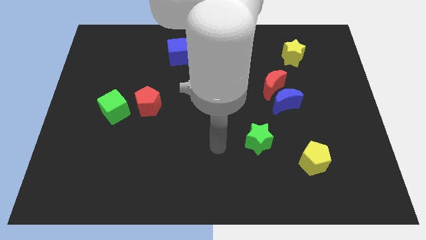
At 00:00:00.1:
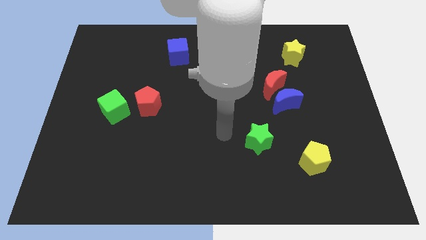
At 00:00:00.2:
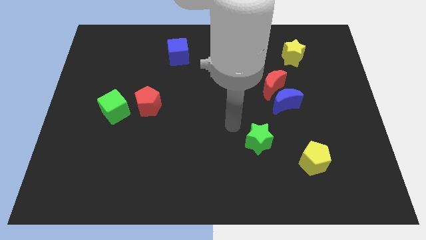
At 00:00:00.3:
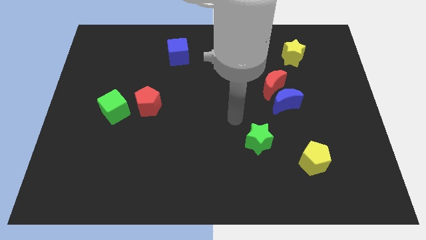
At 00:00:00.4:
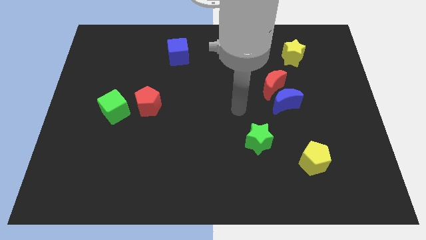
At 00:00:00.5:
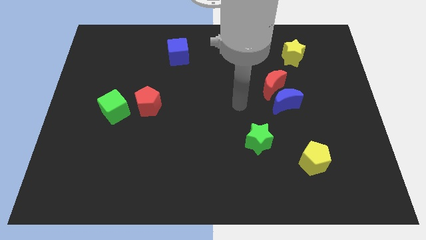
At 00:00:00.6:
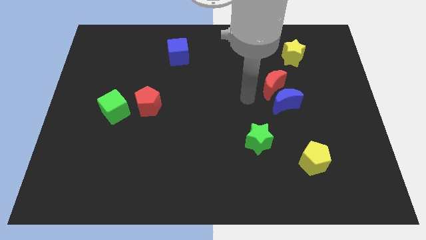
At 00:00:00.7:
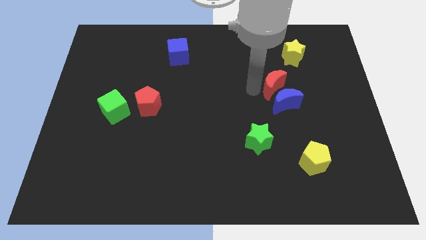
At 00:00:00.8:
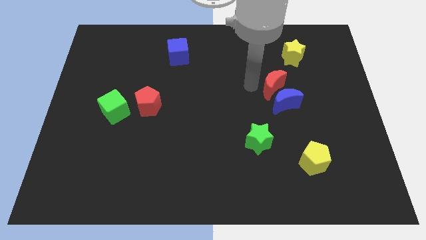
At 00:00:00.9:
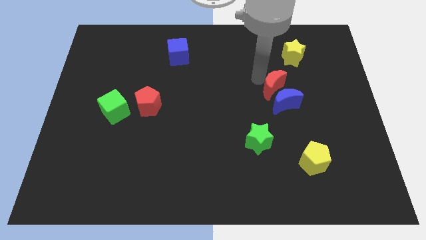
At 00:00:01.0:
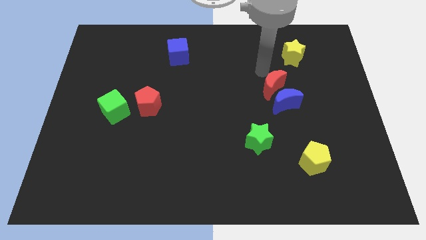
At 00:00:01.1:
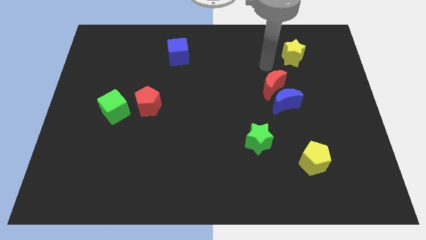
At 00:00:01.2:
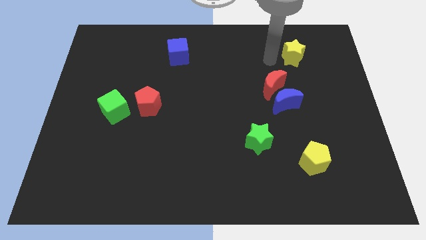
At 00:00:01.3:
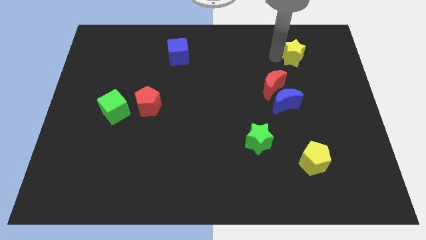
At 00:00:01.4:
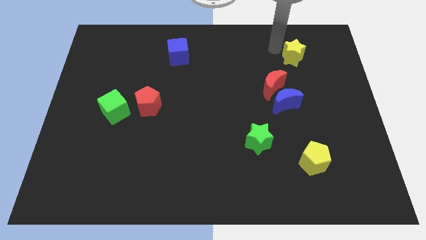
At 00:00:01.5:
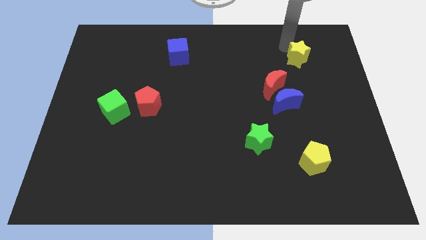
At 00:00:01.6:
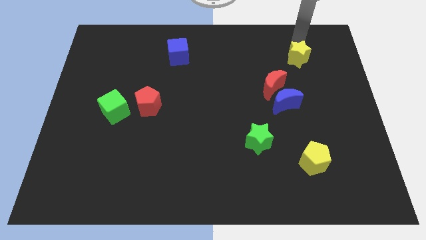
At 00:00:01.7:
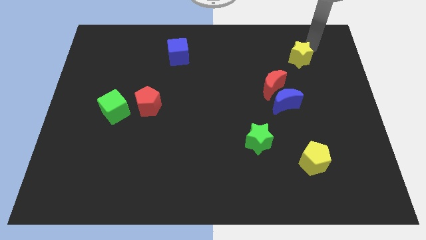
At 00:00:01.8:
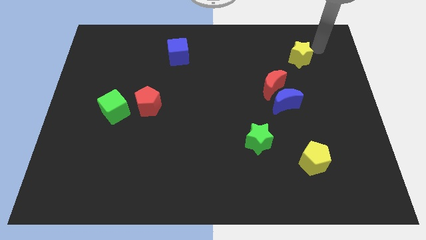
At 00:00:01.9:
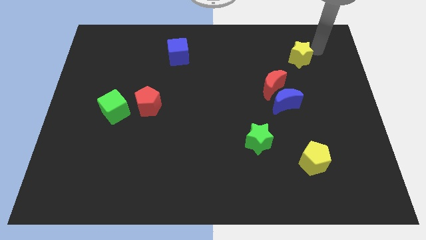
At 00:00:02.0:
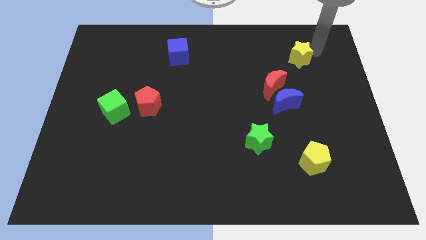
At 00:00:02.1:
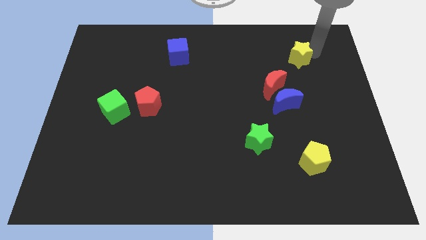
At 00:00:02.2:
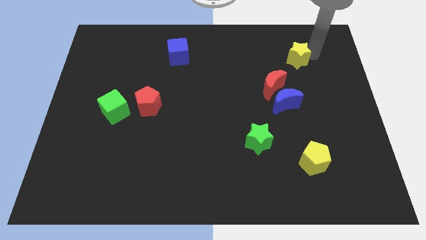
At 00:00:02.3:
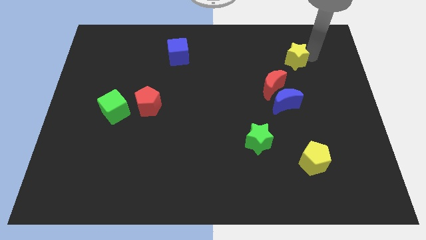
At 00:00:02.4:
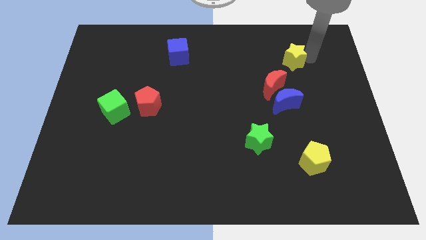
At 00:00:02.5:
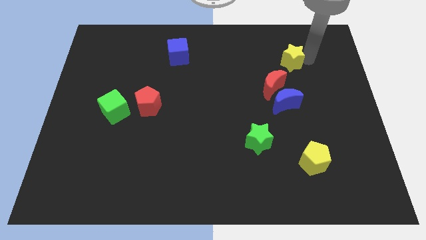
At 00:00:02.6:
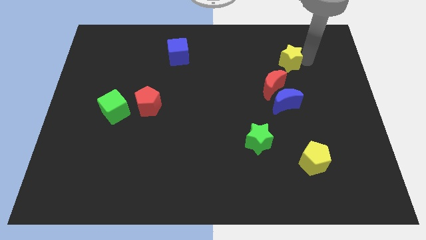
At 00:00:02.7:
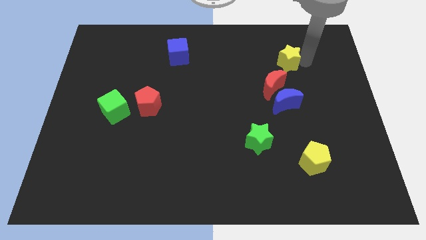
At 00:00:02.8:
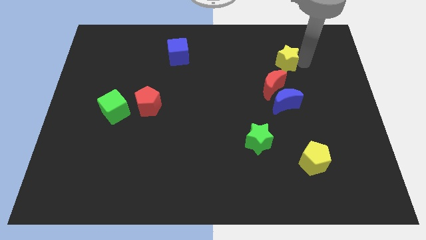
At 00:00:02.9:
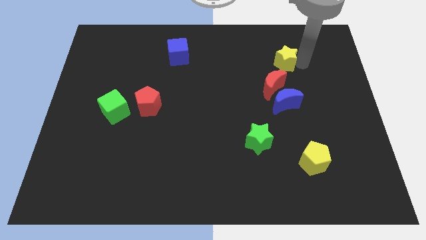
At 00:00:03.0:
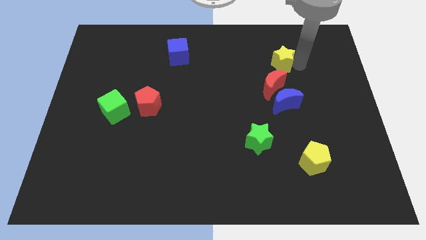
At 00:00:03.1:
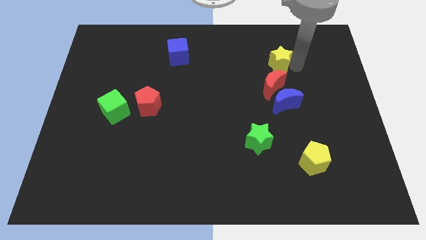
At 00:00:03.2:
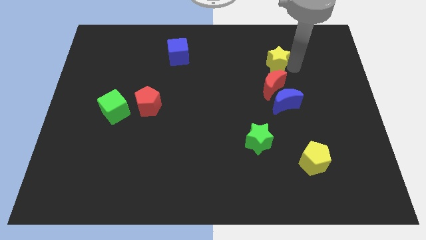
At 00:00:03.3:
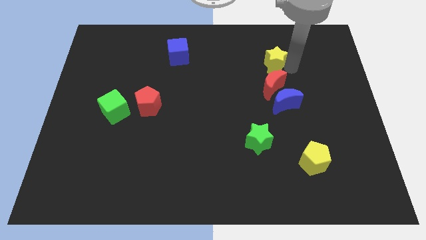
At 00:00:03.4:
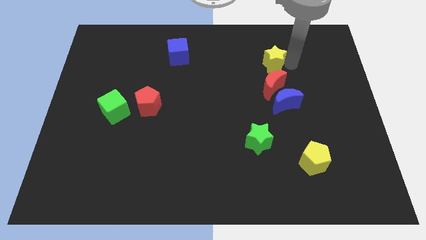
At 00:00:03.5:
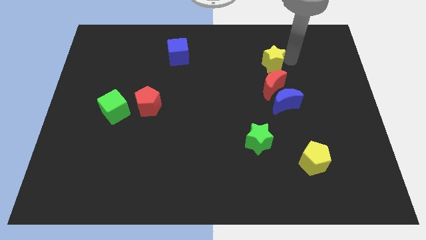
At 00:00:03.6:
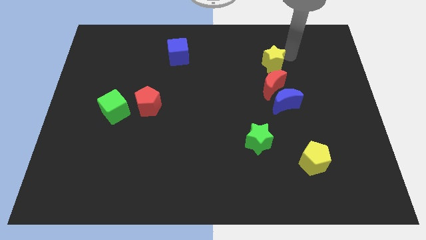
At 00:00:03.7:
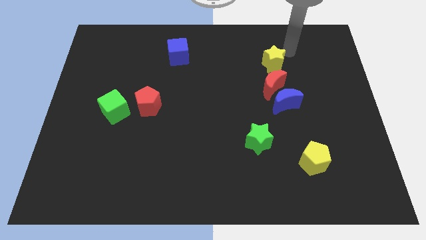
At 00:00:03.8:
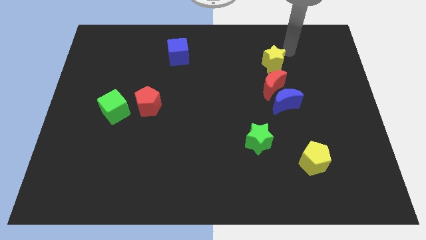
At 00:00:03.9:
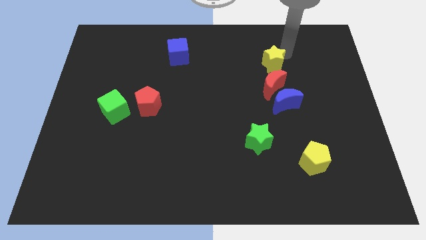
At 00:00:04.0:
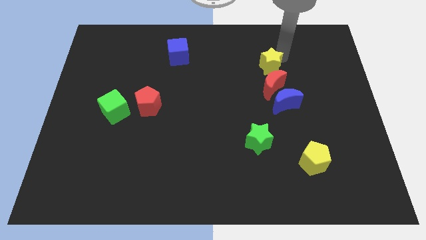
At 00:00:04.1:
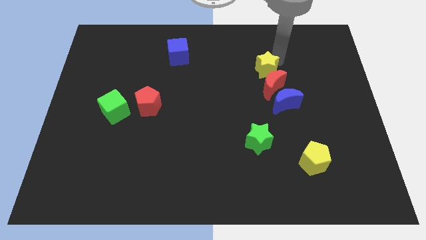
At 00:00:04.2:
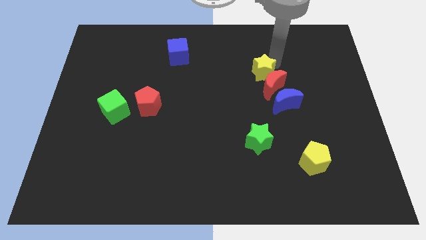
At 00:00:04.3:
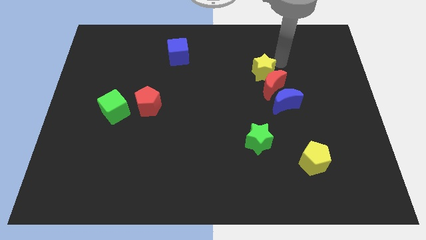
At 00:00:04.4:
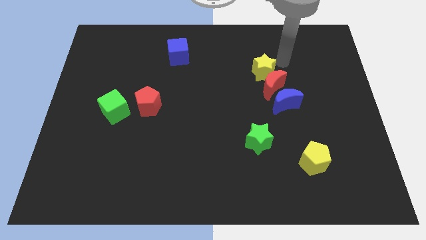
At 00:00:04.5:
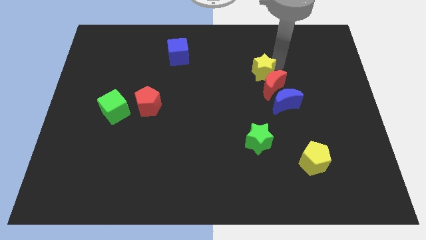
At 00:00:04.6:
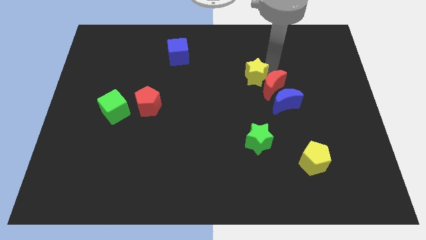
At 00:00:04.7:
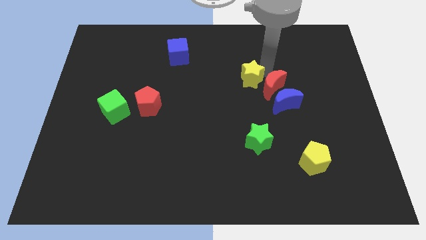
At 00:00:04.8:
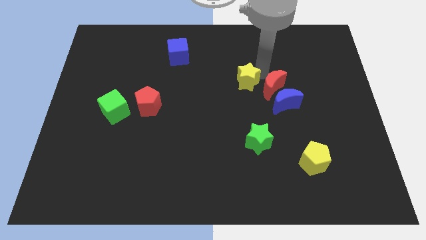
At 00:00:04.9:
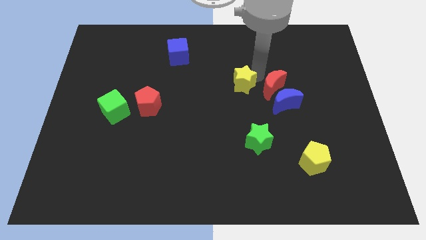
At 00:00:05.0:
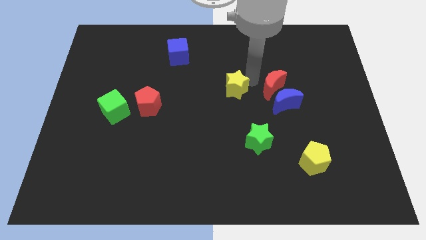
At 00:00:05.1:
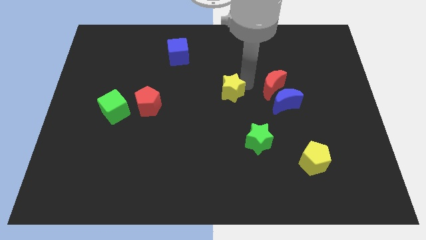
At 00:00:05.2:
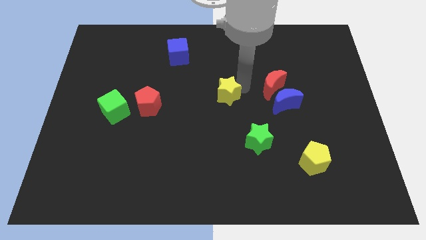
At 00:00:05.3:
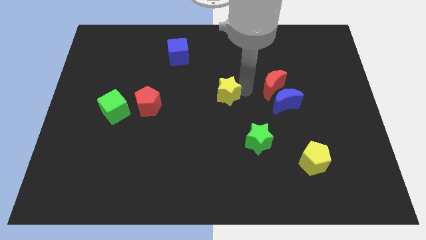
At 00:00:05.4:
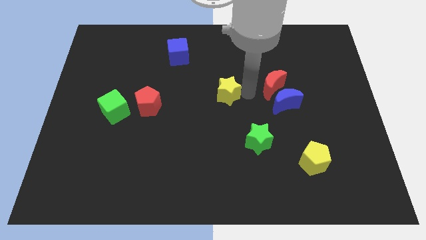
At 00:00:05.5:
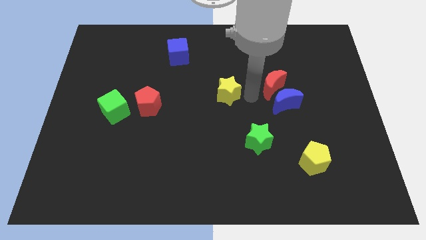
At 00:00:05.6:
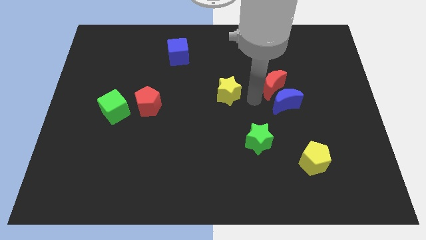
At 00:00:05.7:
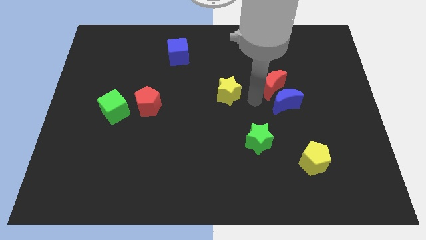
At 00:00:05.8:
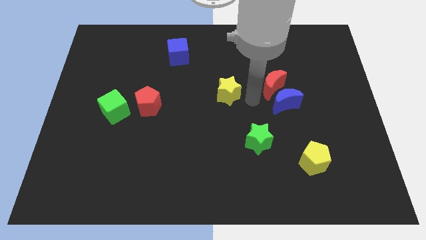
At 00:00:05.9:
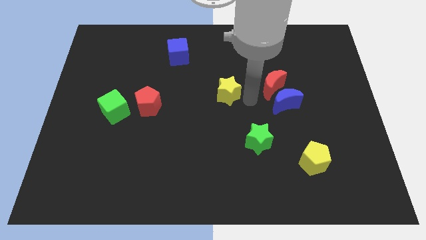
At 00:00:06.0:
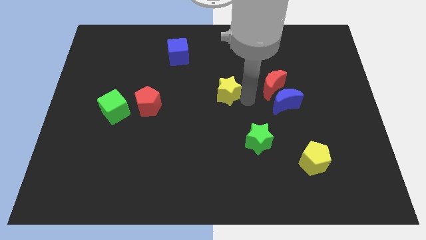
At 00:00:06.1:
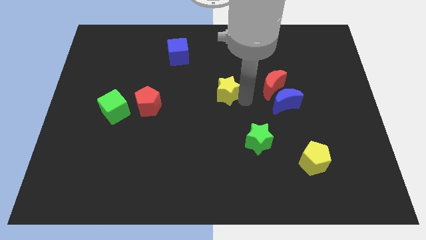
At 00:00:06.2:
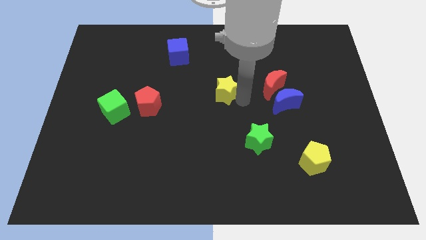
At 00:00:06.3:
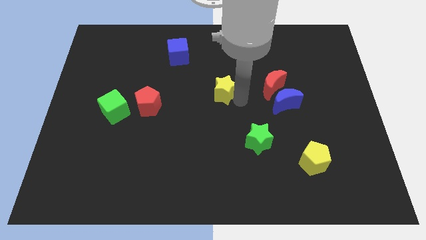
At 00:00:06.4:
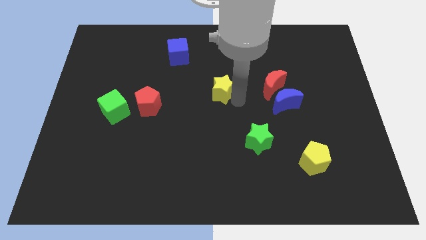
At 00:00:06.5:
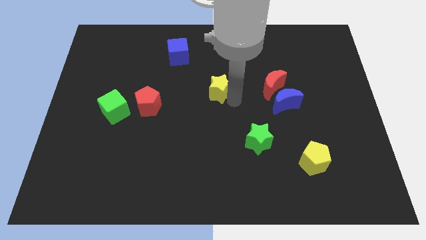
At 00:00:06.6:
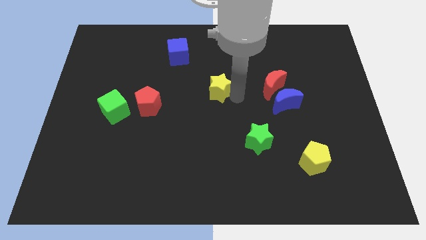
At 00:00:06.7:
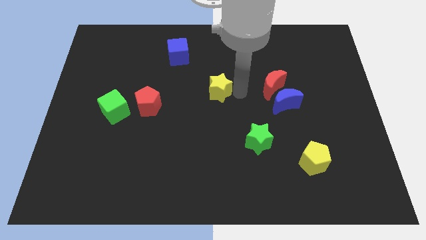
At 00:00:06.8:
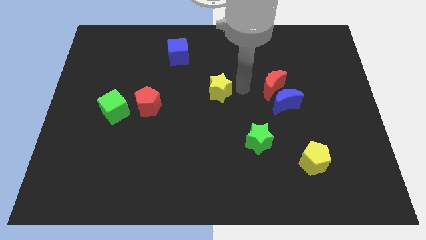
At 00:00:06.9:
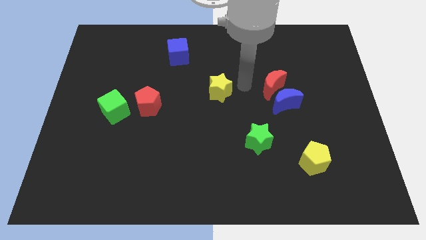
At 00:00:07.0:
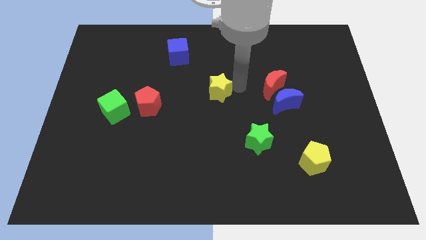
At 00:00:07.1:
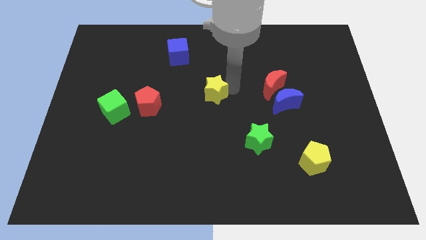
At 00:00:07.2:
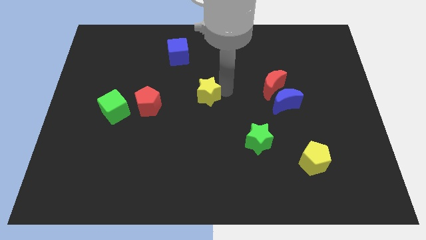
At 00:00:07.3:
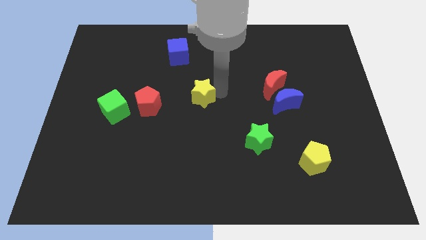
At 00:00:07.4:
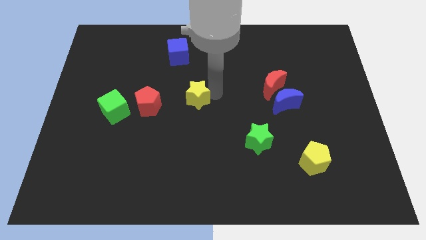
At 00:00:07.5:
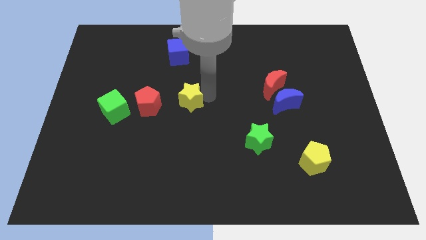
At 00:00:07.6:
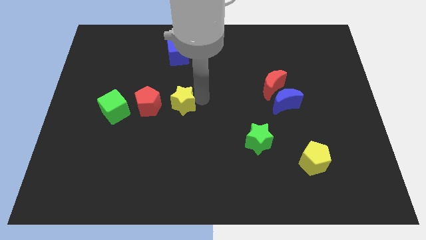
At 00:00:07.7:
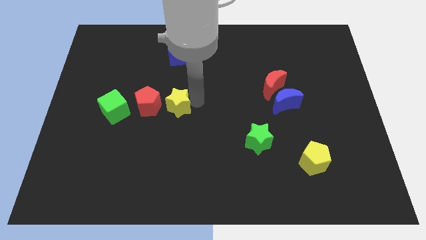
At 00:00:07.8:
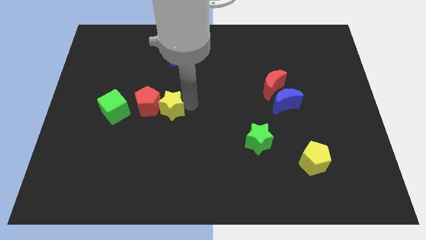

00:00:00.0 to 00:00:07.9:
push the yellow star close to the red pentagon
